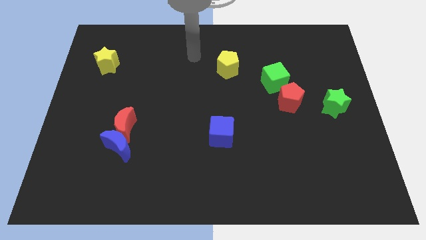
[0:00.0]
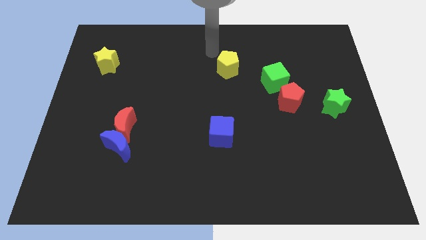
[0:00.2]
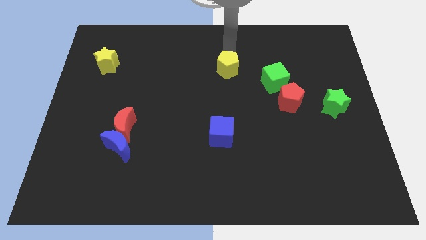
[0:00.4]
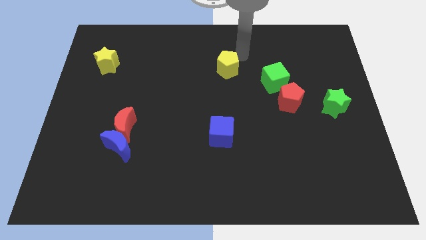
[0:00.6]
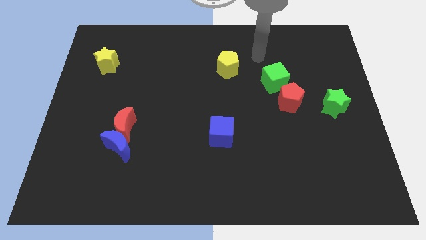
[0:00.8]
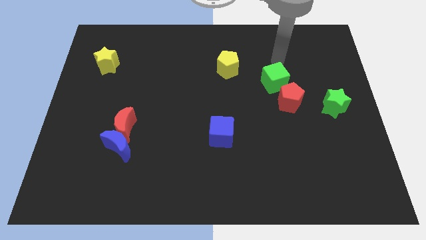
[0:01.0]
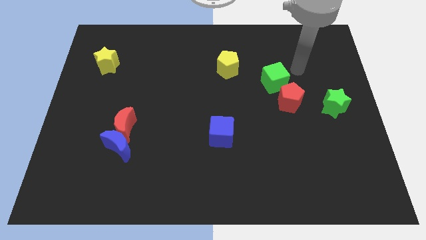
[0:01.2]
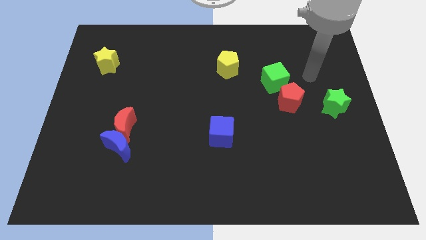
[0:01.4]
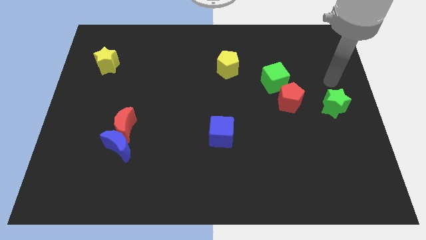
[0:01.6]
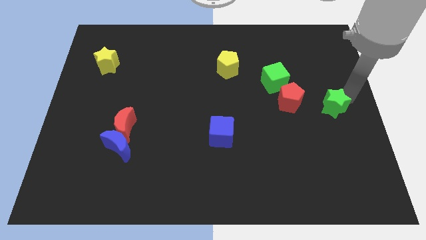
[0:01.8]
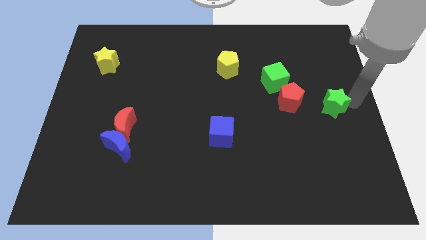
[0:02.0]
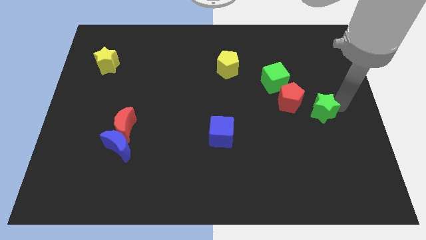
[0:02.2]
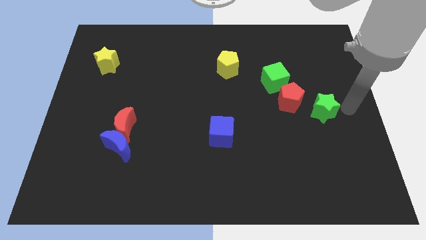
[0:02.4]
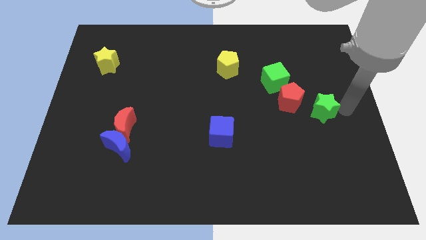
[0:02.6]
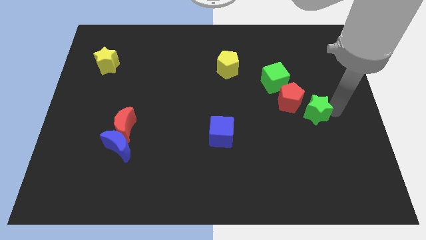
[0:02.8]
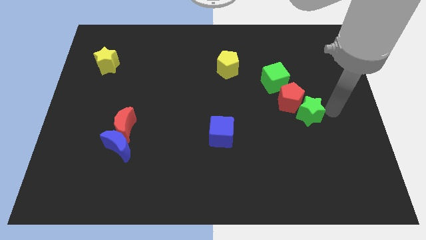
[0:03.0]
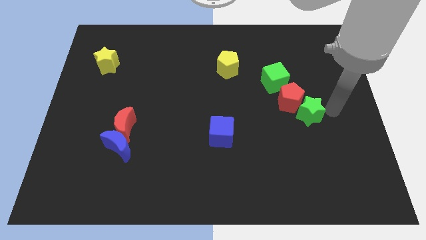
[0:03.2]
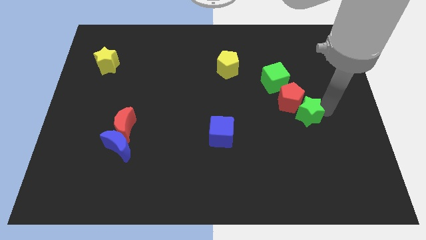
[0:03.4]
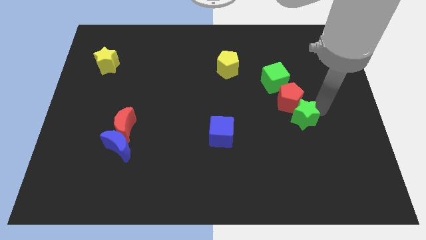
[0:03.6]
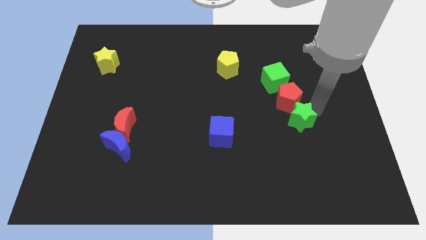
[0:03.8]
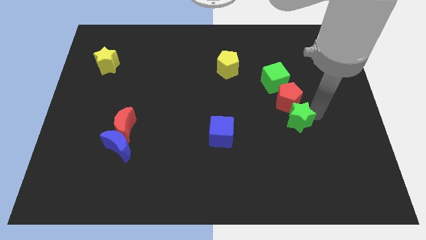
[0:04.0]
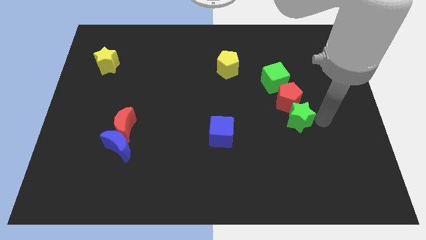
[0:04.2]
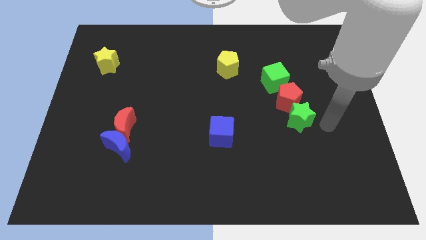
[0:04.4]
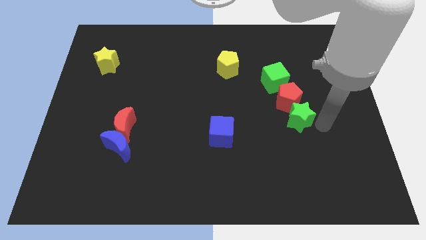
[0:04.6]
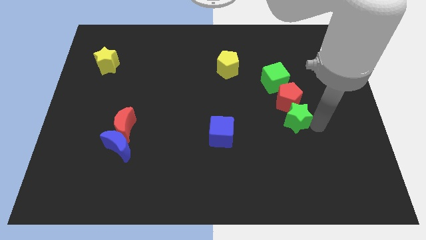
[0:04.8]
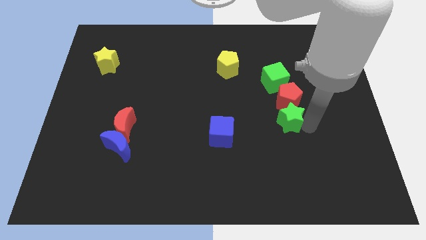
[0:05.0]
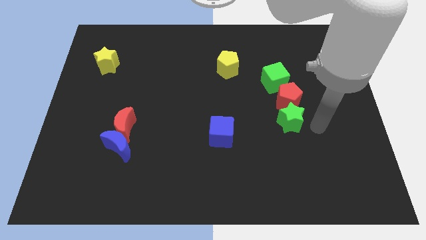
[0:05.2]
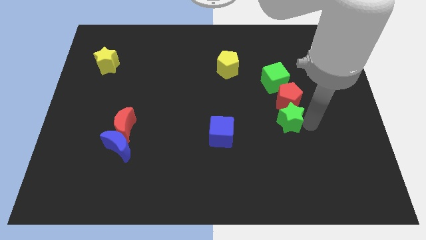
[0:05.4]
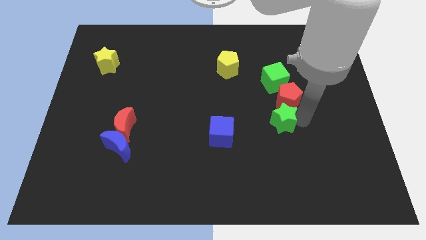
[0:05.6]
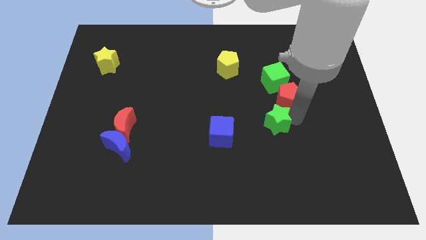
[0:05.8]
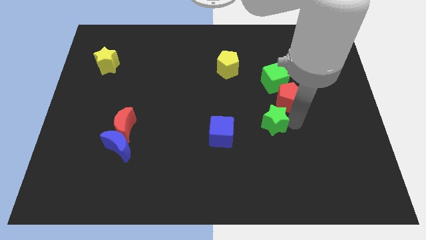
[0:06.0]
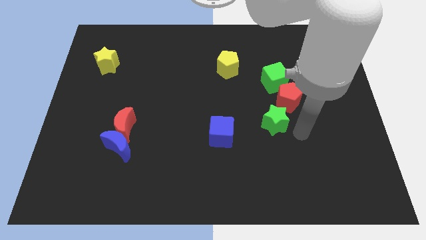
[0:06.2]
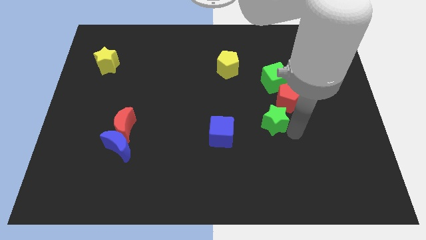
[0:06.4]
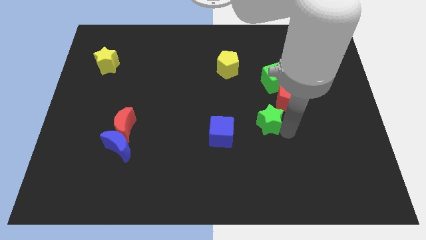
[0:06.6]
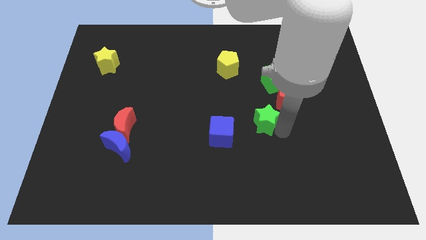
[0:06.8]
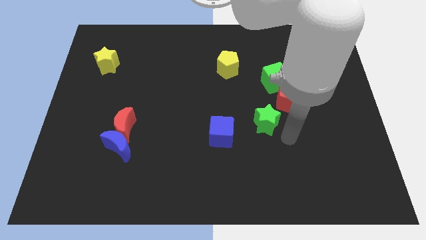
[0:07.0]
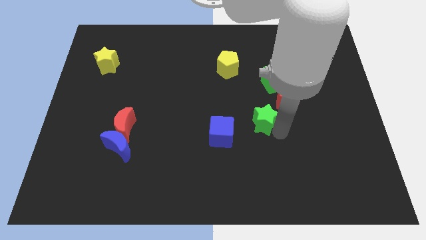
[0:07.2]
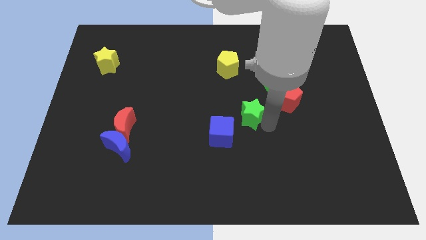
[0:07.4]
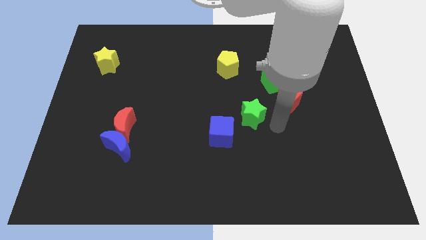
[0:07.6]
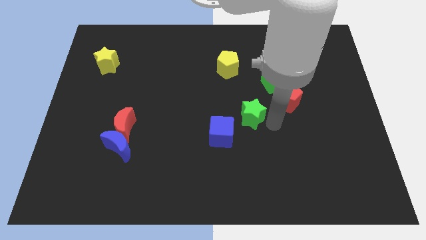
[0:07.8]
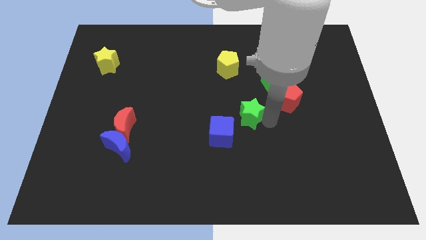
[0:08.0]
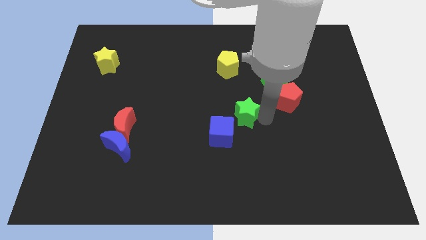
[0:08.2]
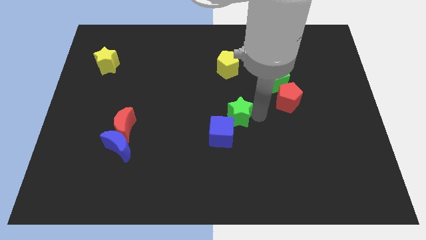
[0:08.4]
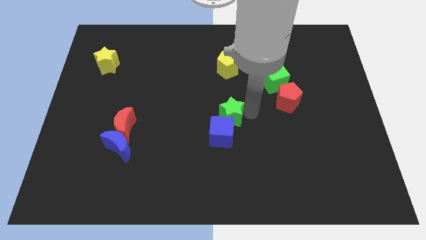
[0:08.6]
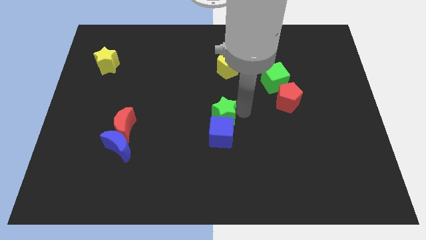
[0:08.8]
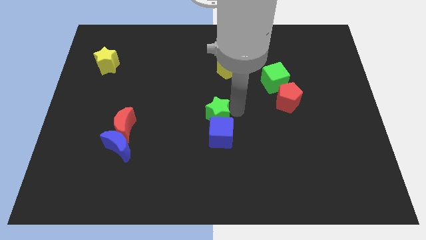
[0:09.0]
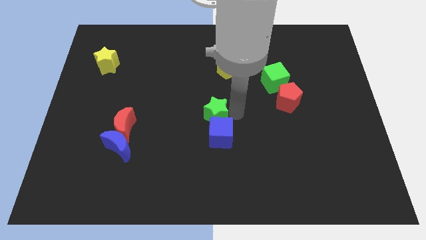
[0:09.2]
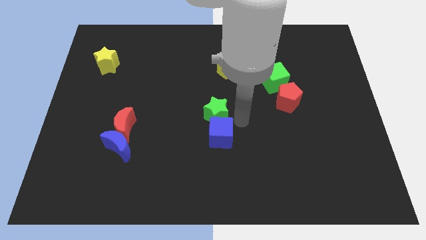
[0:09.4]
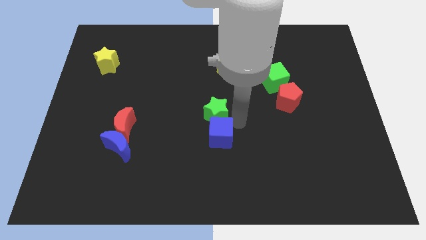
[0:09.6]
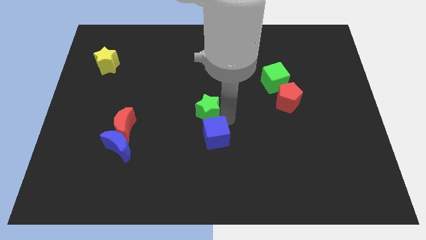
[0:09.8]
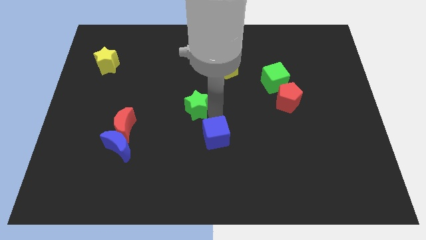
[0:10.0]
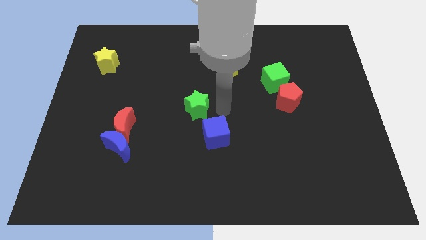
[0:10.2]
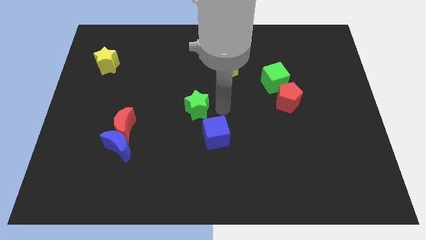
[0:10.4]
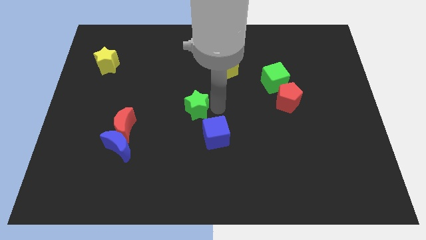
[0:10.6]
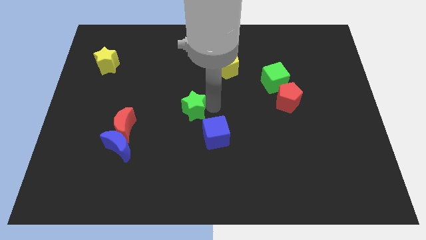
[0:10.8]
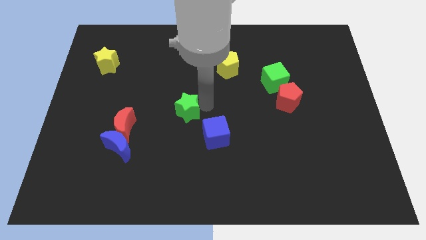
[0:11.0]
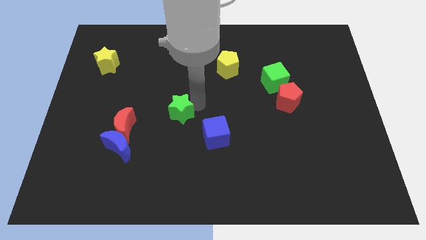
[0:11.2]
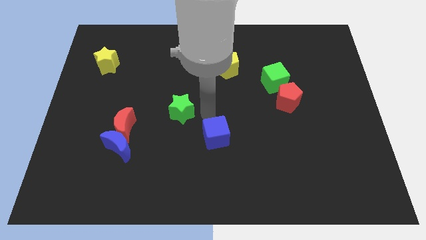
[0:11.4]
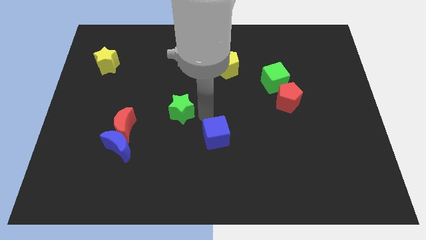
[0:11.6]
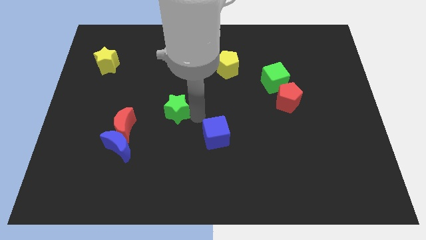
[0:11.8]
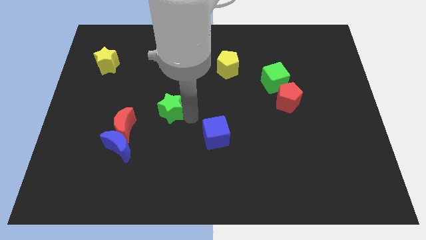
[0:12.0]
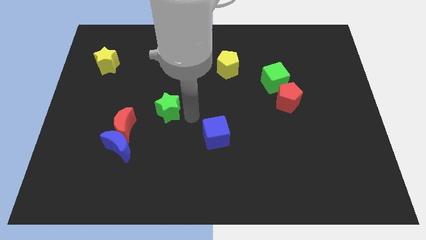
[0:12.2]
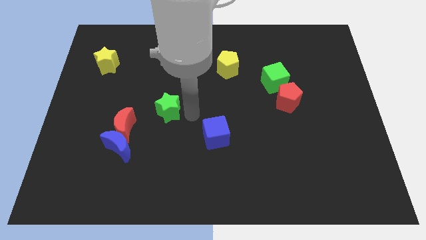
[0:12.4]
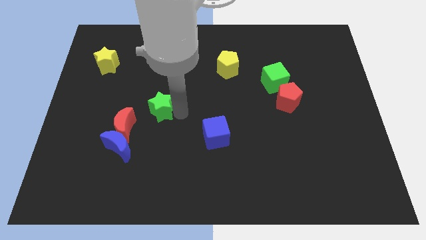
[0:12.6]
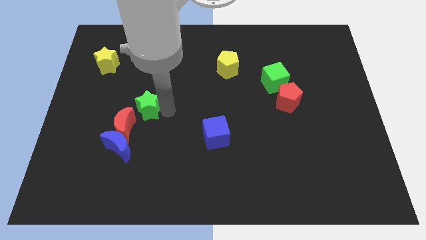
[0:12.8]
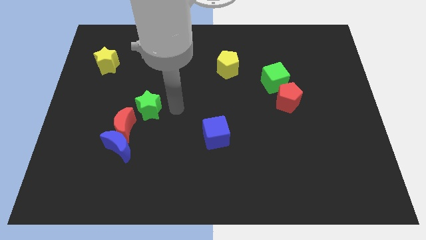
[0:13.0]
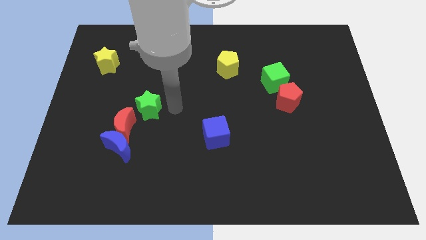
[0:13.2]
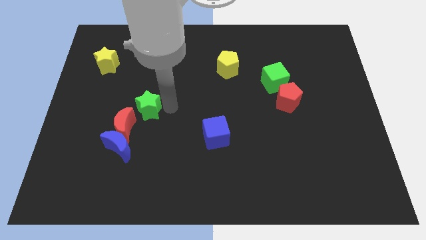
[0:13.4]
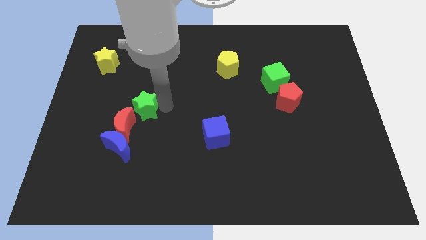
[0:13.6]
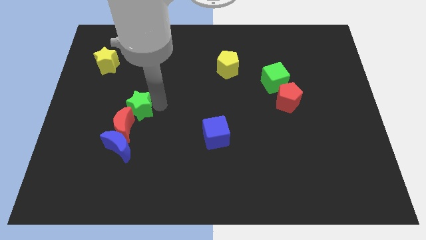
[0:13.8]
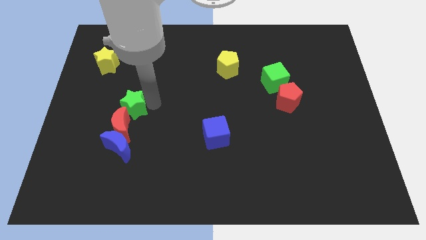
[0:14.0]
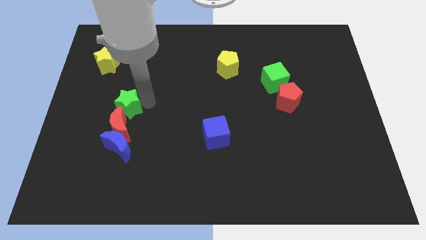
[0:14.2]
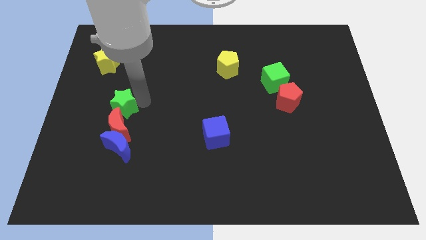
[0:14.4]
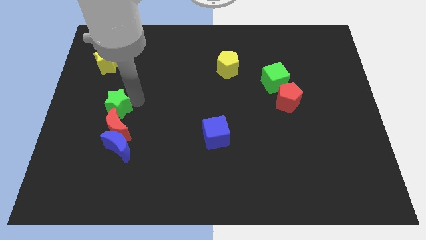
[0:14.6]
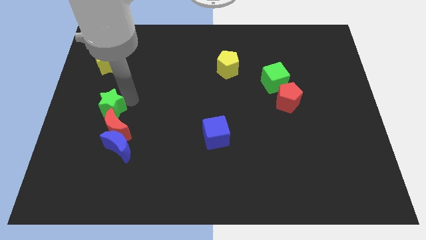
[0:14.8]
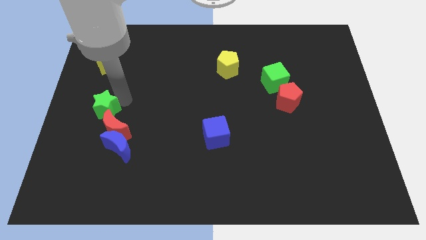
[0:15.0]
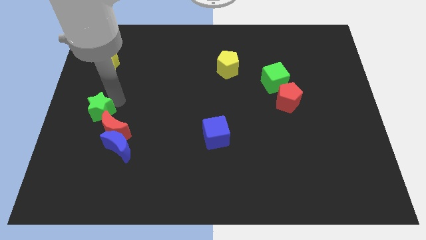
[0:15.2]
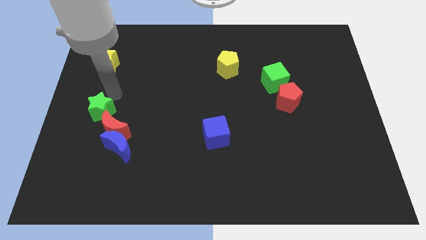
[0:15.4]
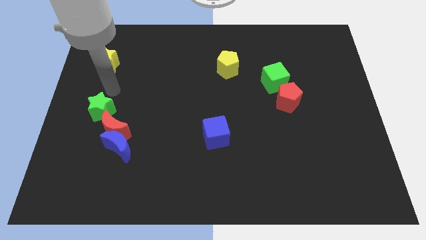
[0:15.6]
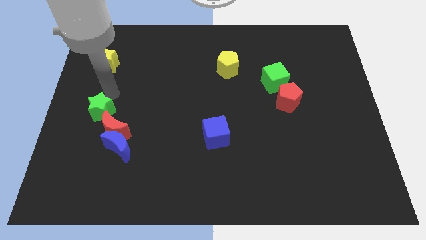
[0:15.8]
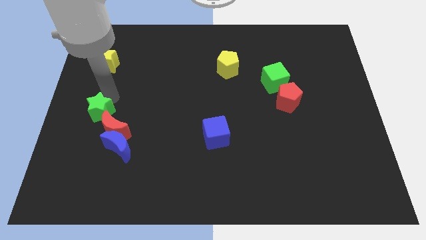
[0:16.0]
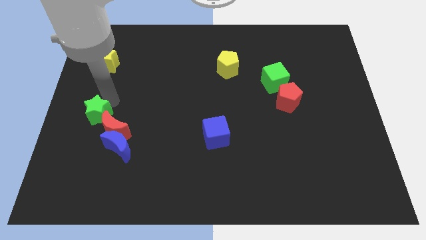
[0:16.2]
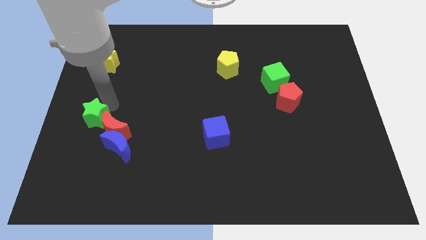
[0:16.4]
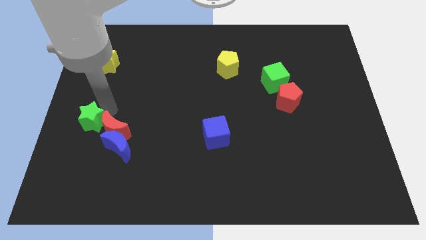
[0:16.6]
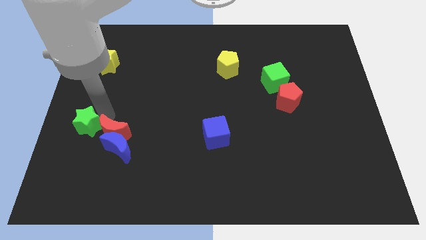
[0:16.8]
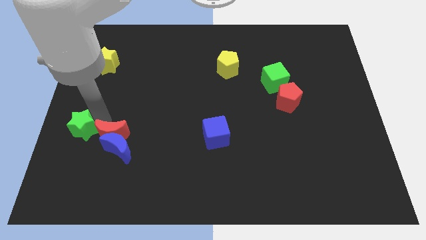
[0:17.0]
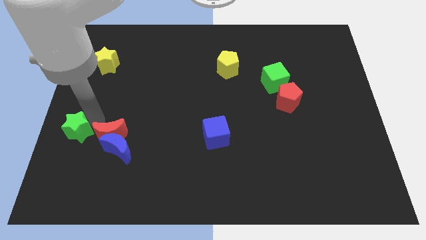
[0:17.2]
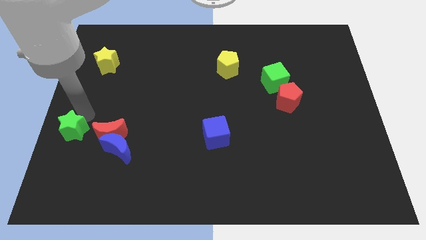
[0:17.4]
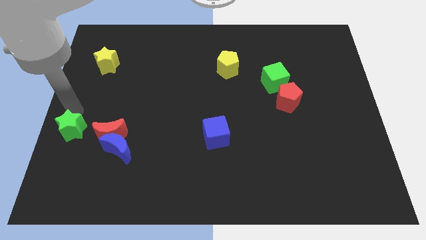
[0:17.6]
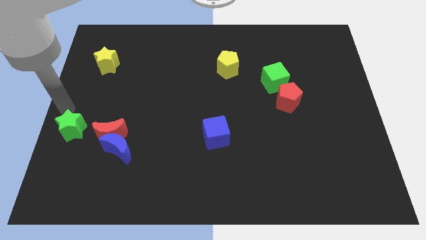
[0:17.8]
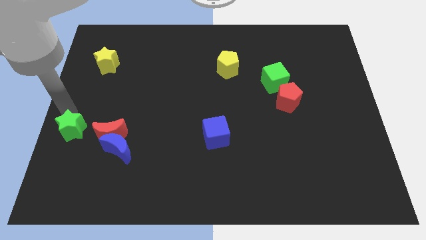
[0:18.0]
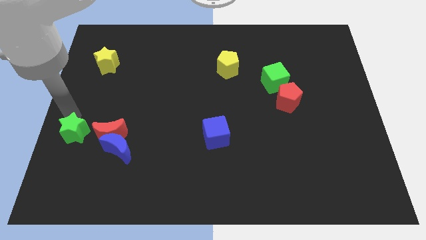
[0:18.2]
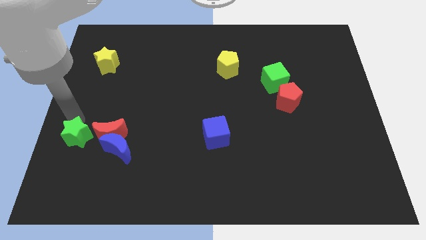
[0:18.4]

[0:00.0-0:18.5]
push the green star to the bottom left of the red moon
